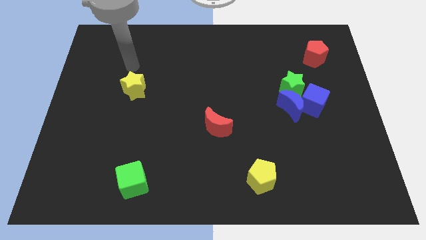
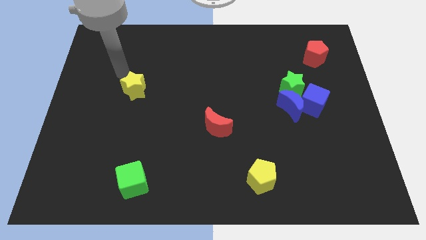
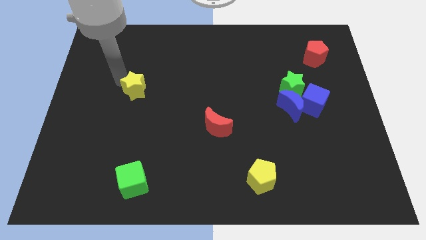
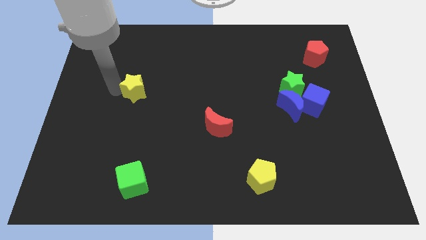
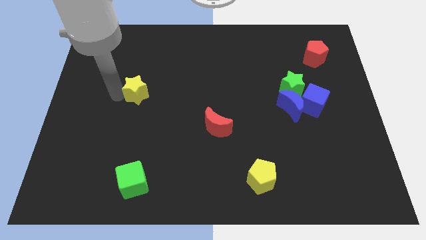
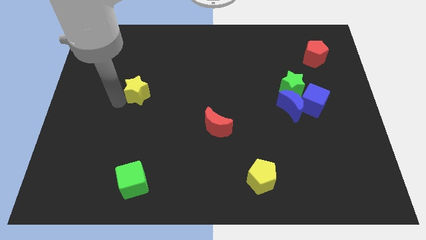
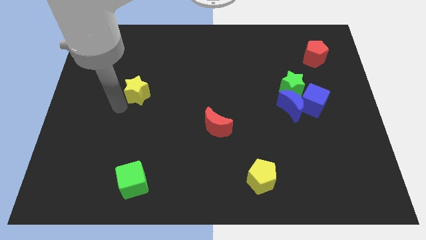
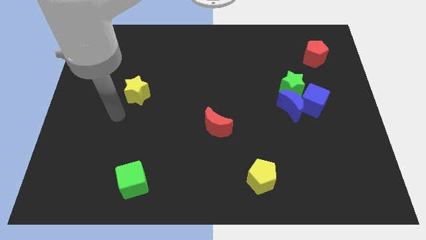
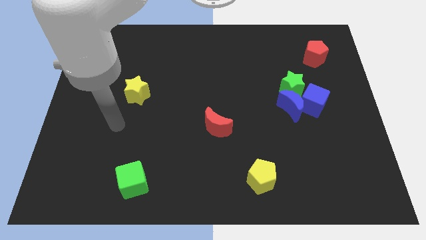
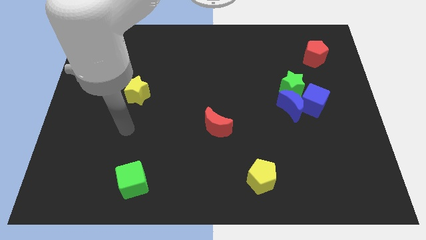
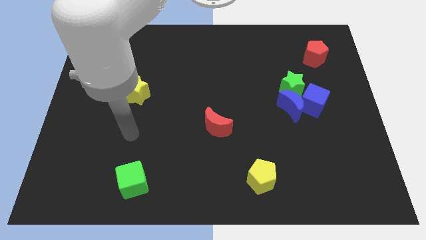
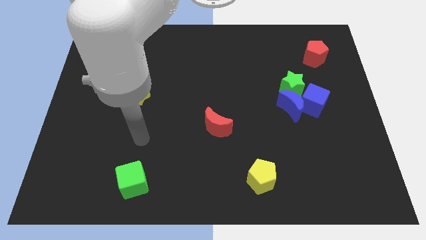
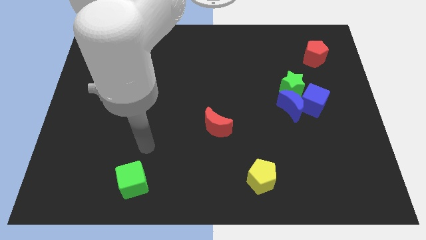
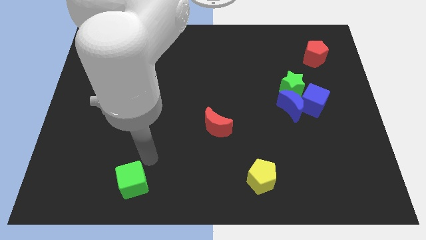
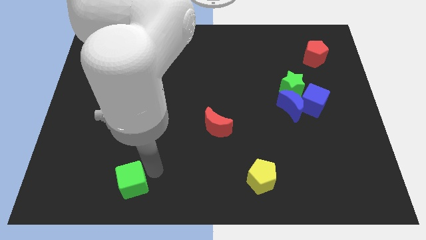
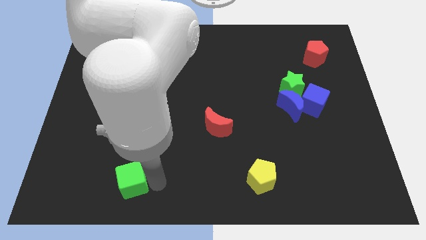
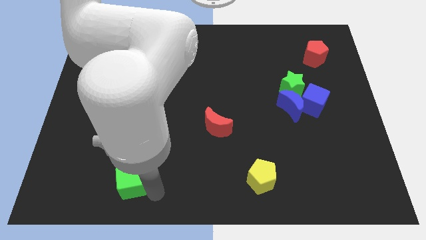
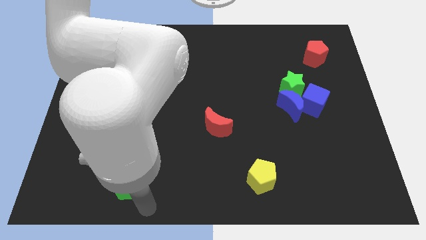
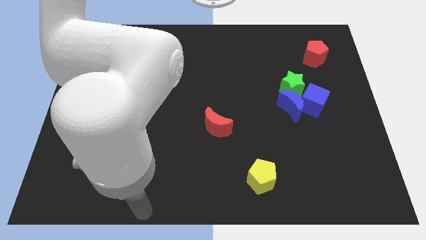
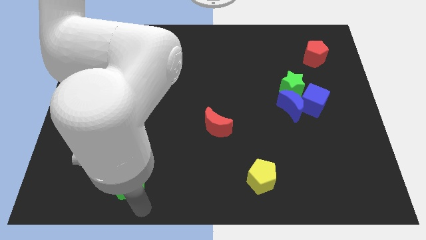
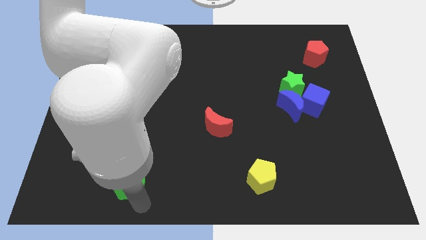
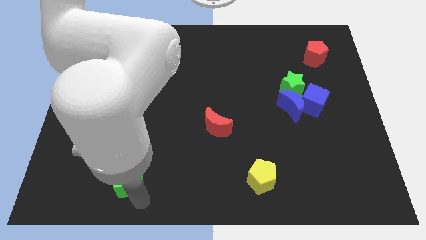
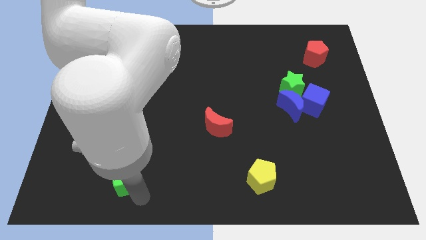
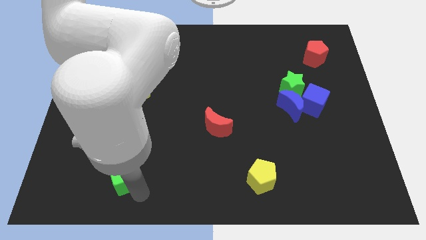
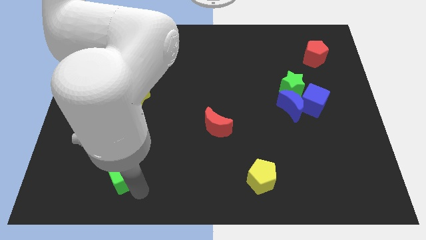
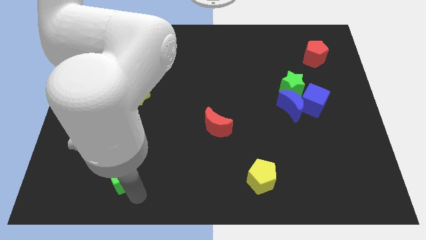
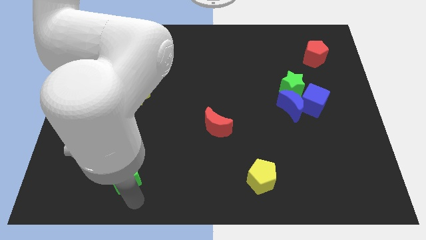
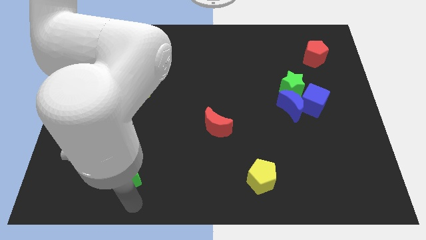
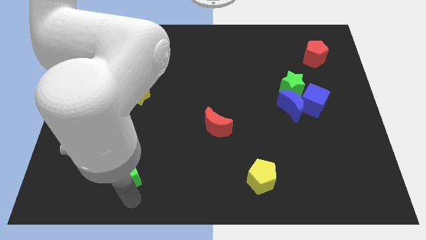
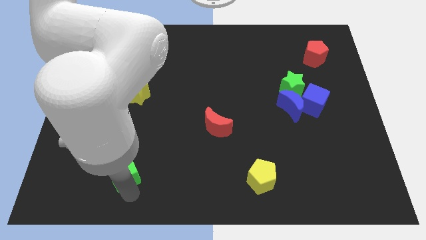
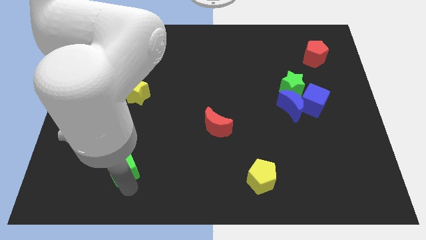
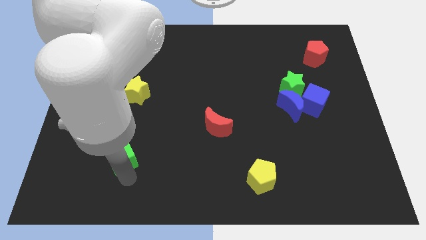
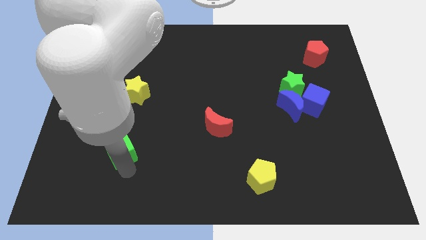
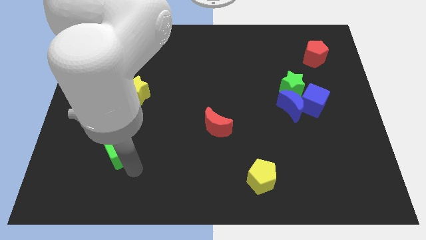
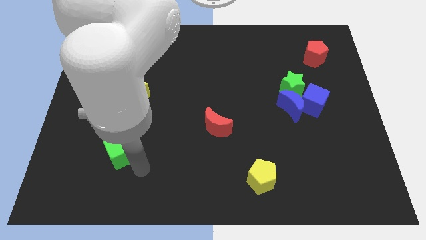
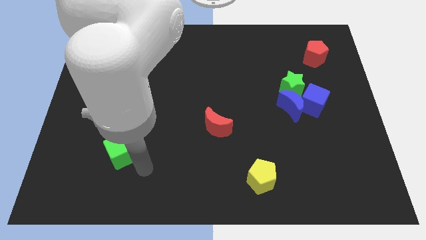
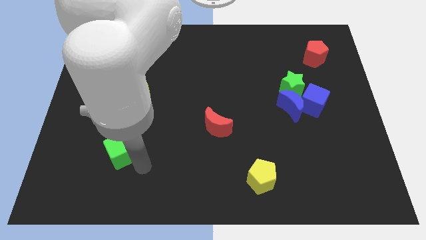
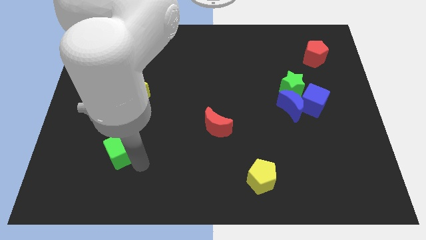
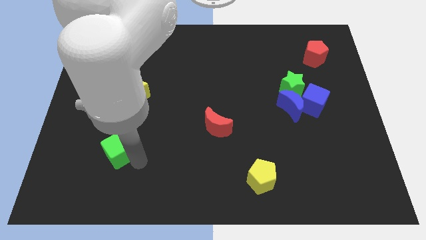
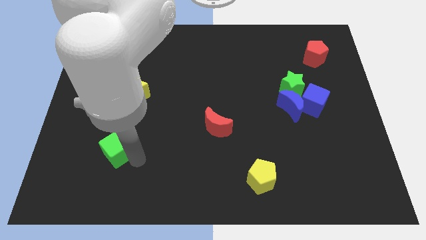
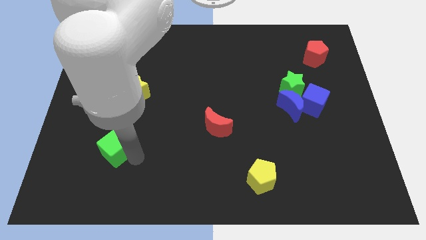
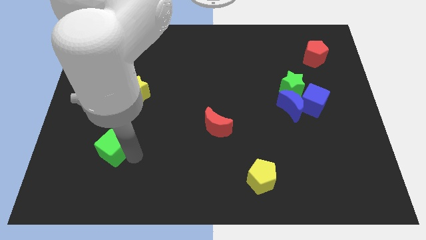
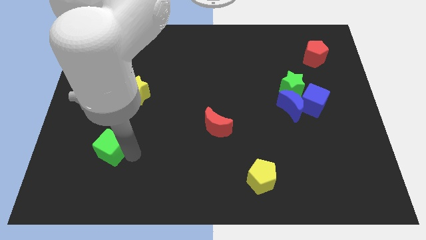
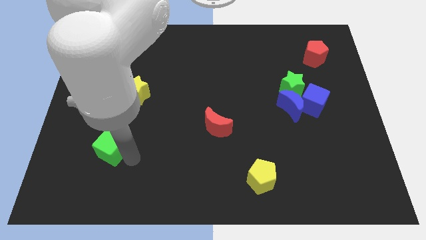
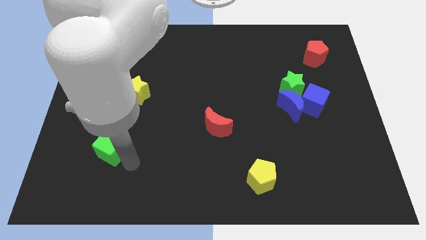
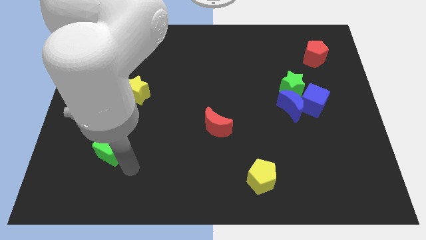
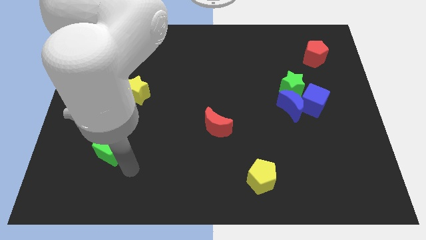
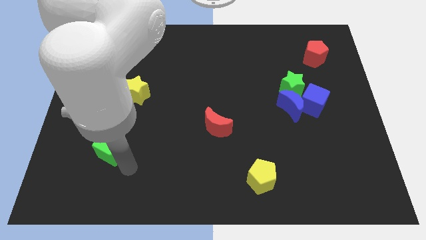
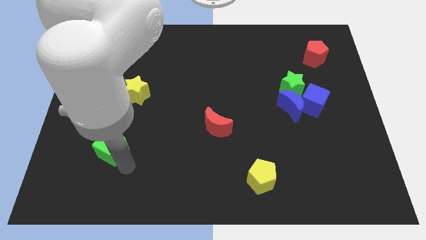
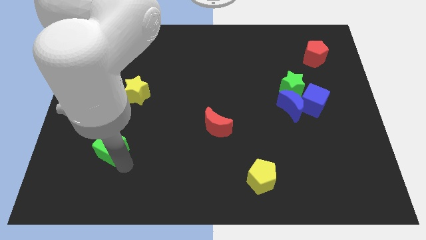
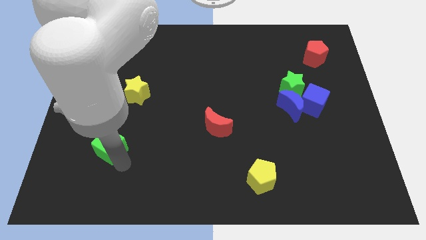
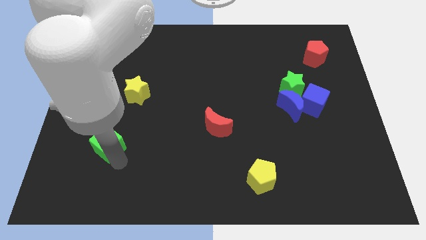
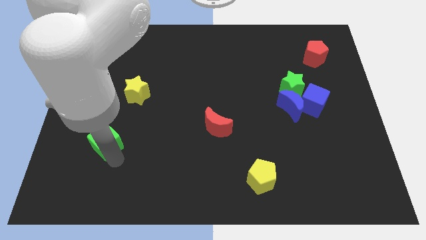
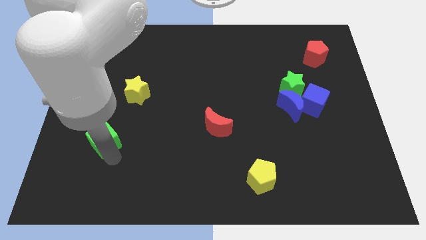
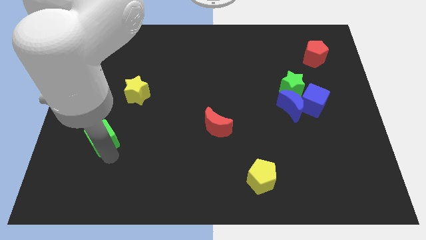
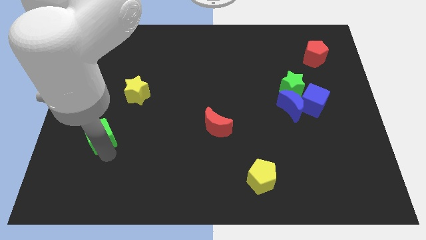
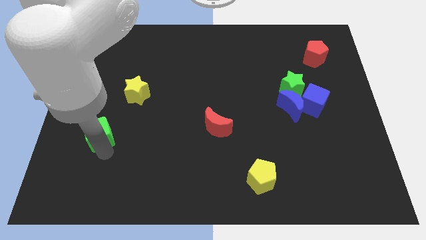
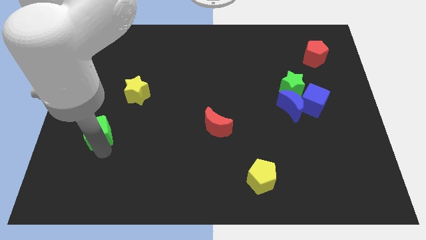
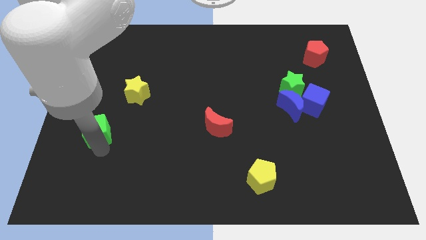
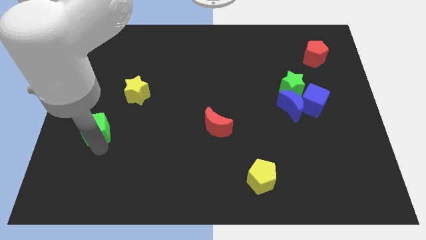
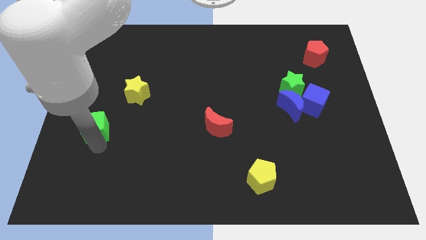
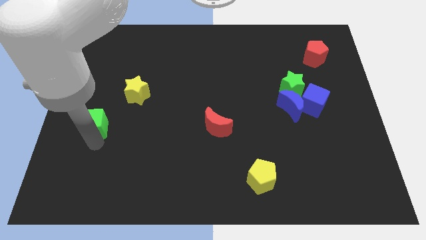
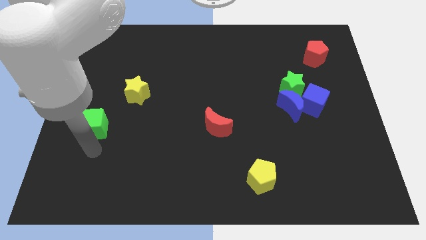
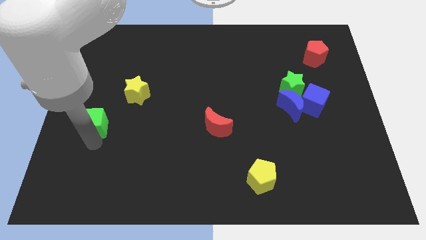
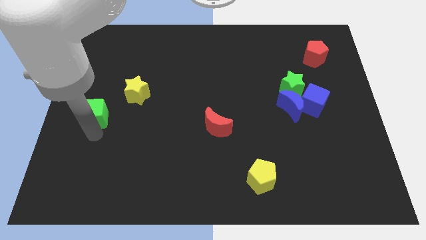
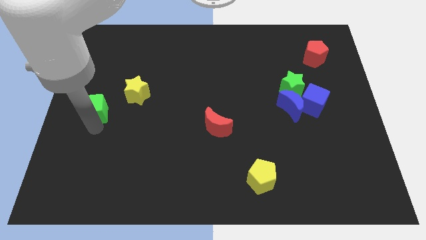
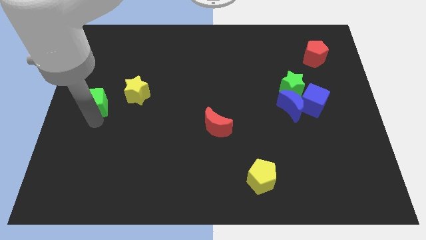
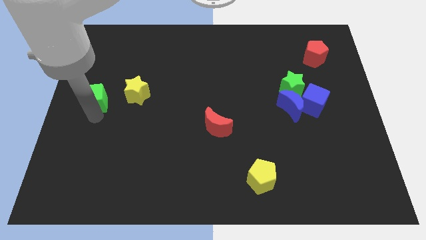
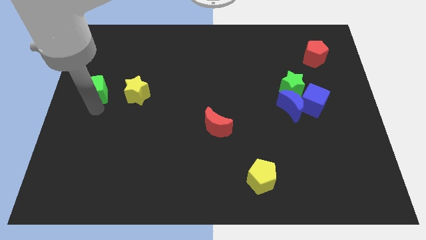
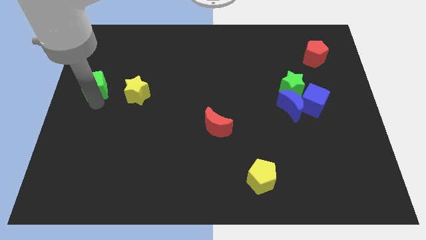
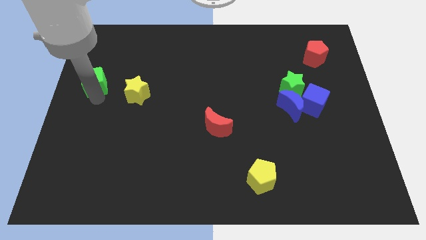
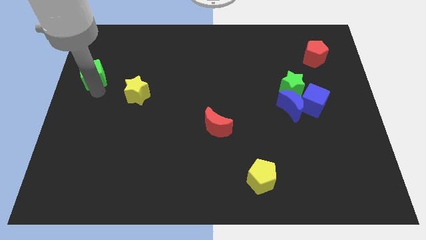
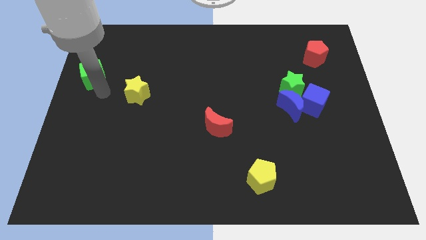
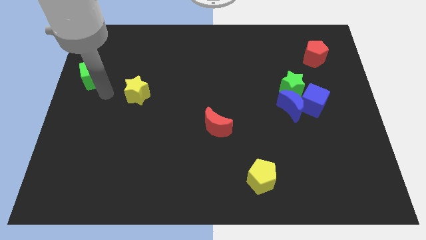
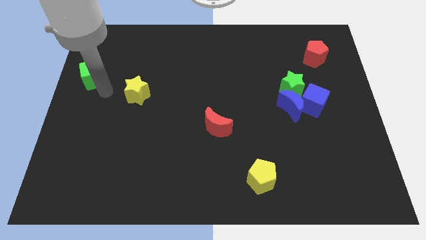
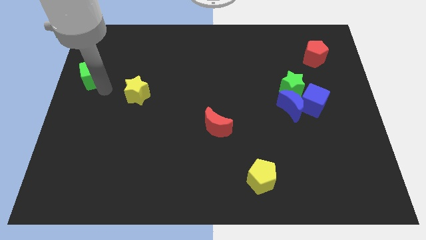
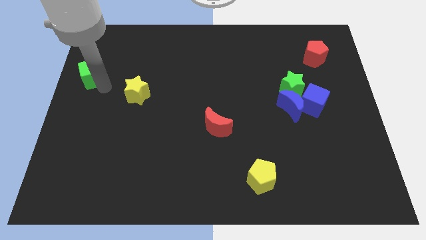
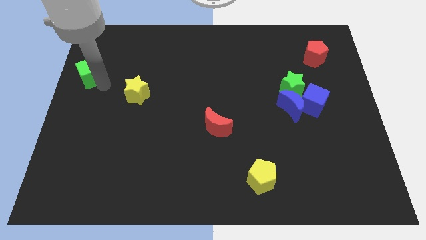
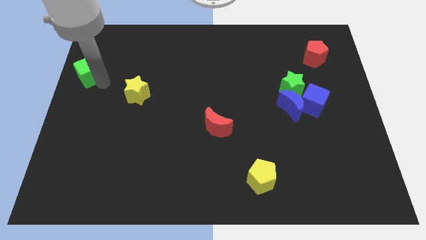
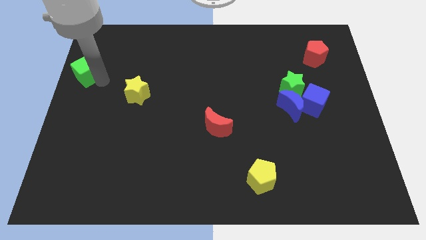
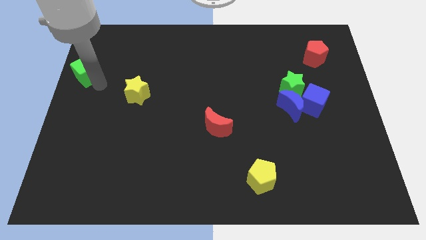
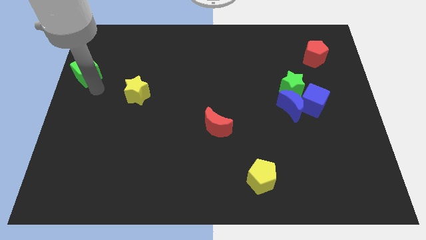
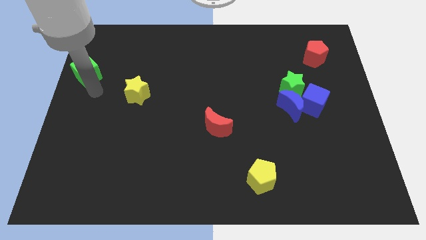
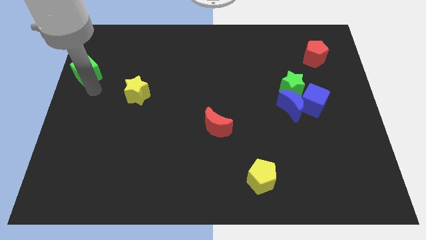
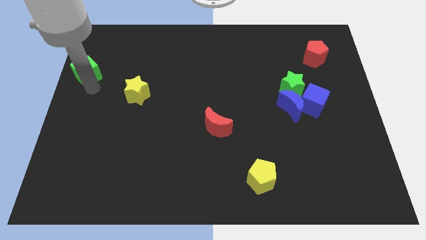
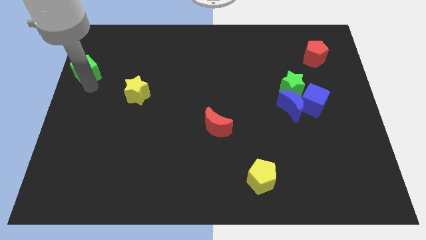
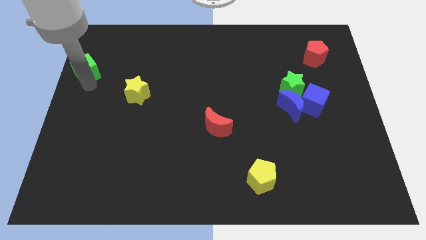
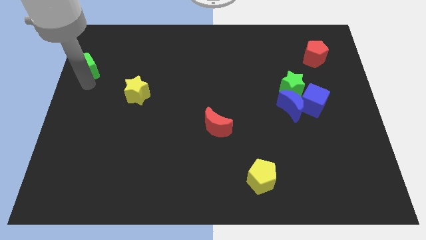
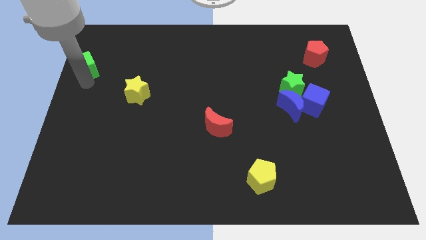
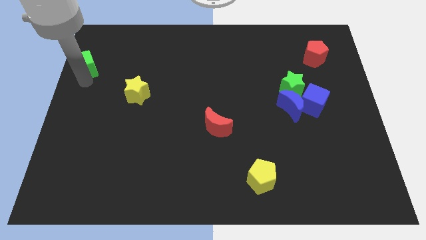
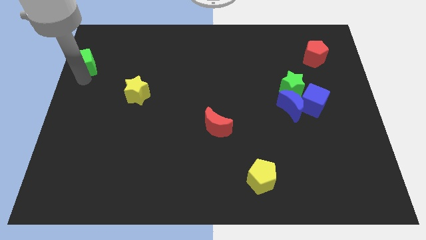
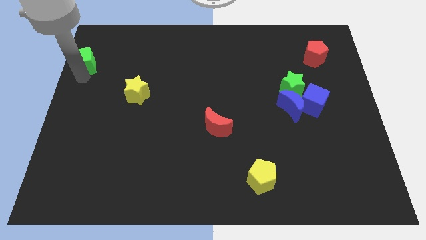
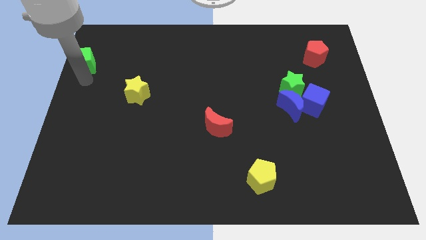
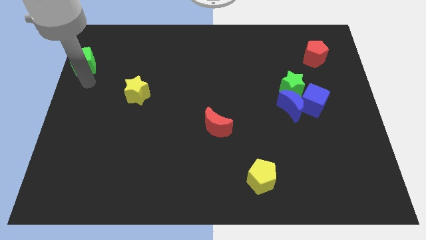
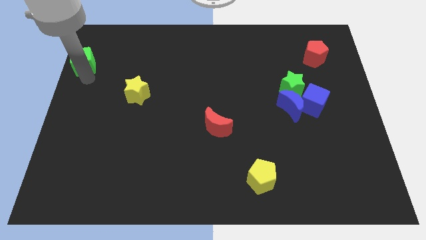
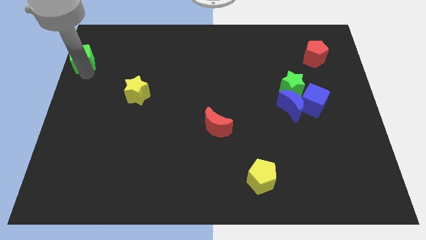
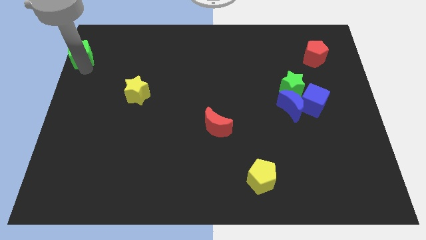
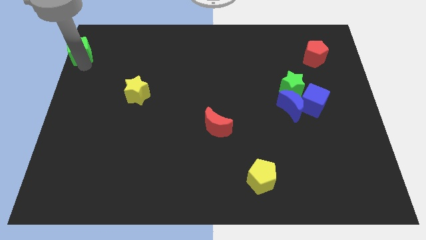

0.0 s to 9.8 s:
put the green cube to the top left
